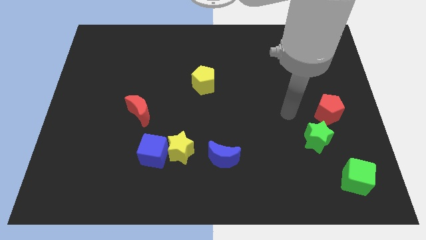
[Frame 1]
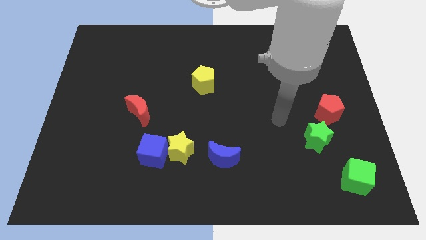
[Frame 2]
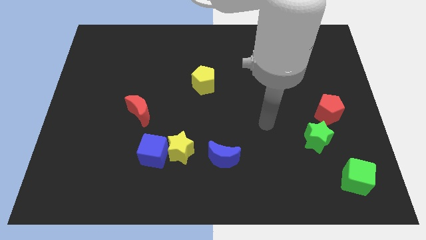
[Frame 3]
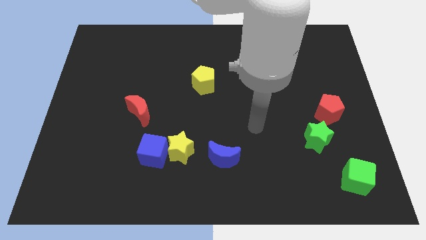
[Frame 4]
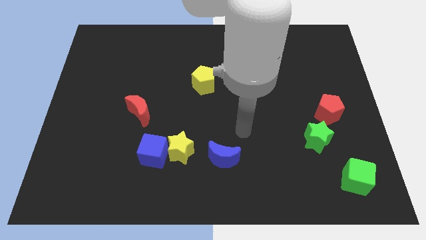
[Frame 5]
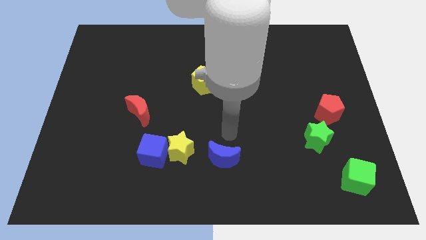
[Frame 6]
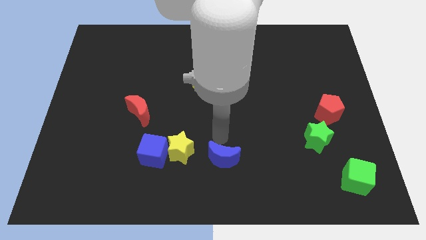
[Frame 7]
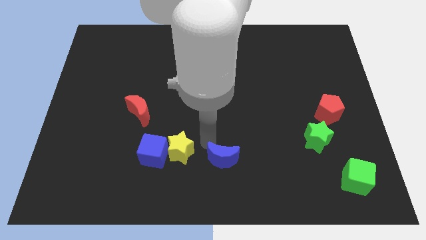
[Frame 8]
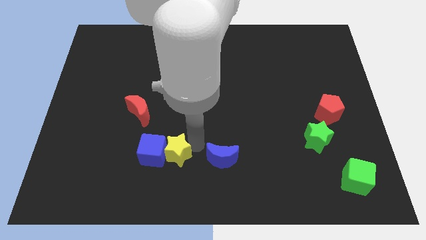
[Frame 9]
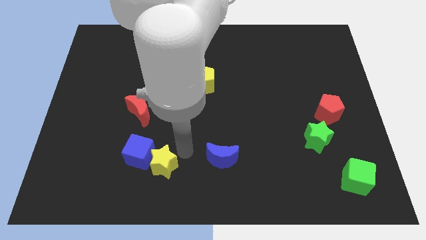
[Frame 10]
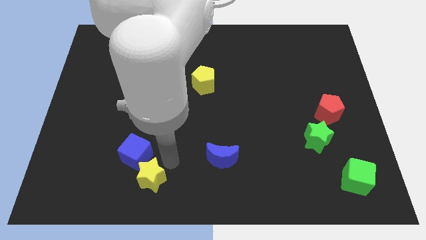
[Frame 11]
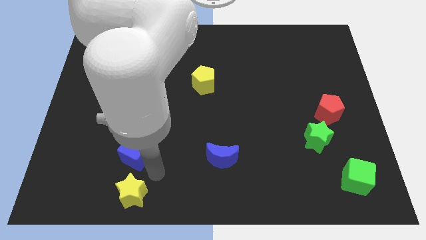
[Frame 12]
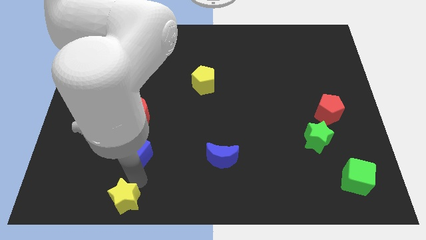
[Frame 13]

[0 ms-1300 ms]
move the blue cube away from the yellow star

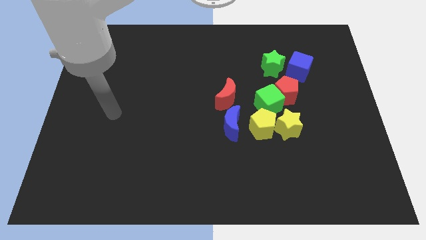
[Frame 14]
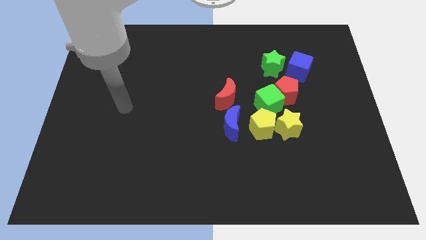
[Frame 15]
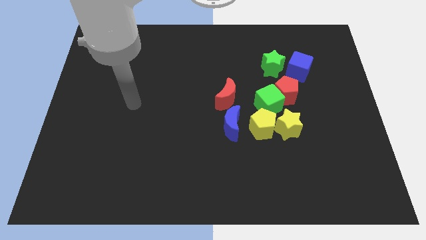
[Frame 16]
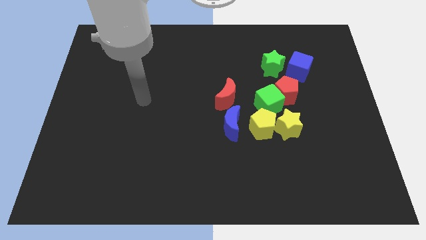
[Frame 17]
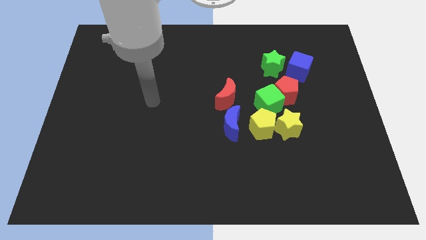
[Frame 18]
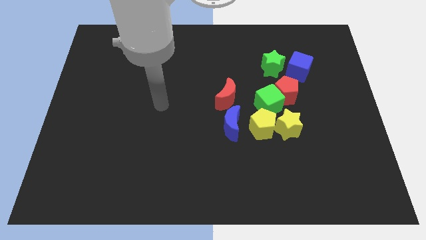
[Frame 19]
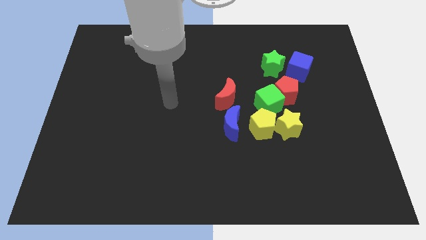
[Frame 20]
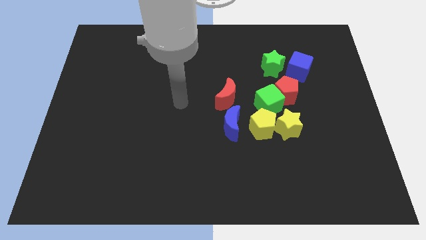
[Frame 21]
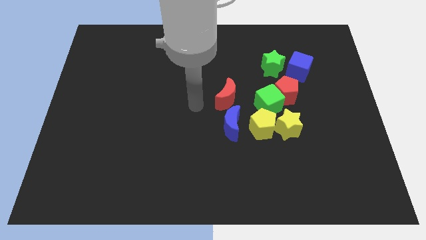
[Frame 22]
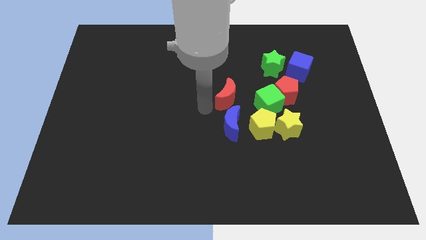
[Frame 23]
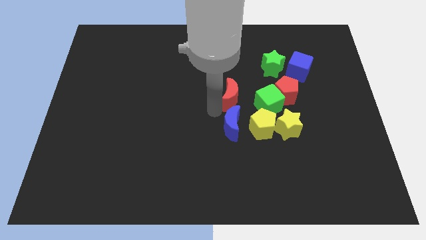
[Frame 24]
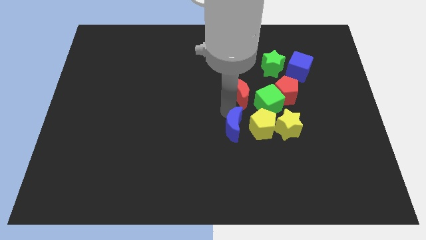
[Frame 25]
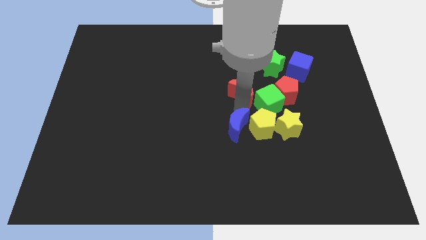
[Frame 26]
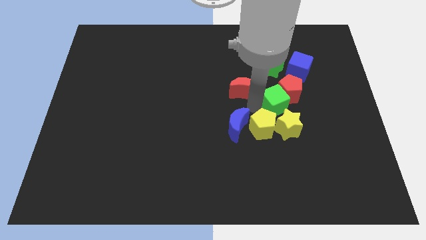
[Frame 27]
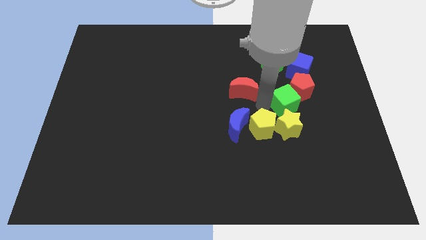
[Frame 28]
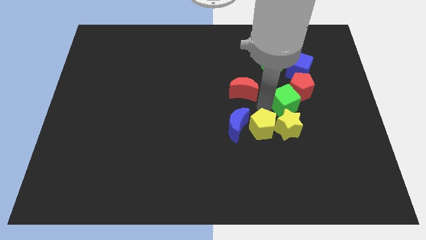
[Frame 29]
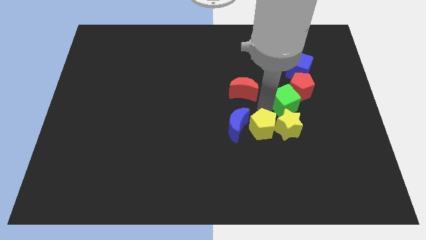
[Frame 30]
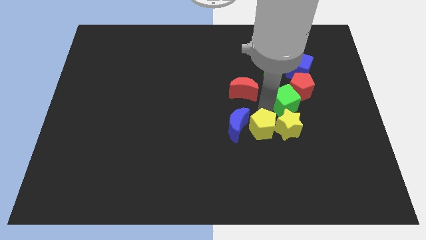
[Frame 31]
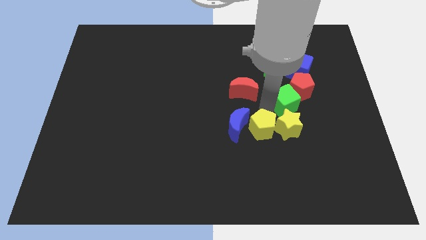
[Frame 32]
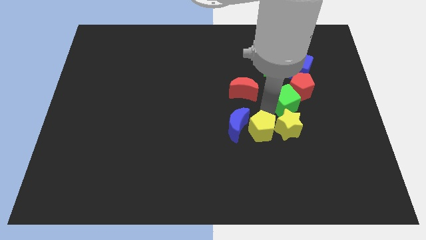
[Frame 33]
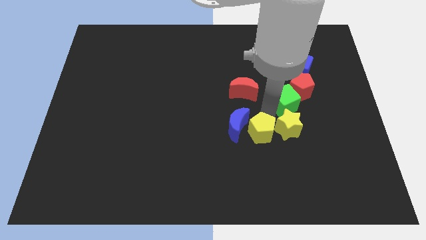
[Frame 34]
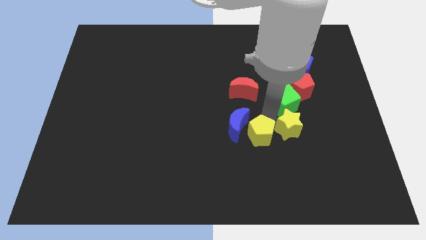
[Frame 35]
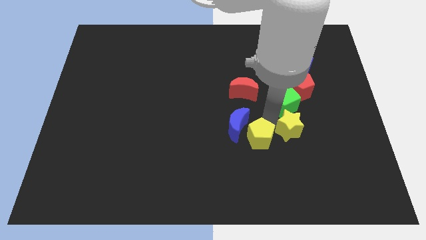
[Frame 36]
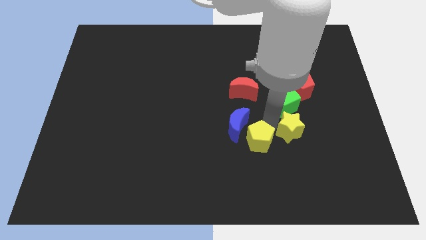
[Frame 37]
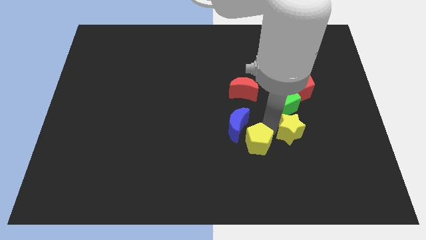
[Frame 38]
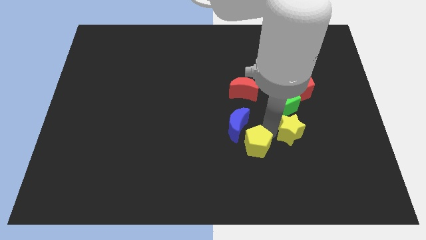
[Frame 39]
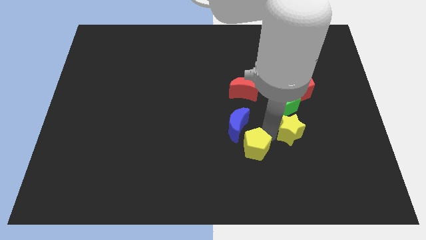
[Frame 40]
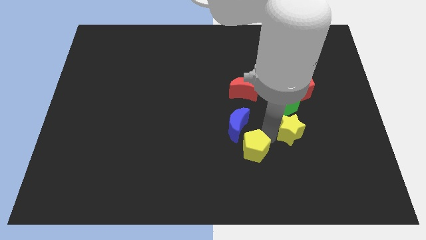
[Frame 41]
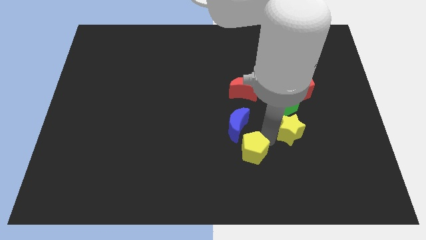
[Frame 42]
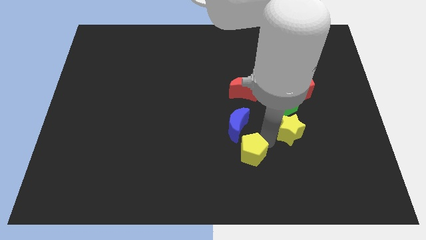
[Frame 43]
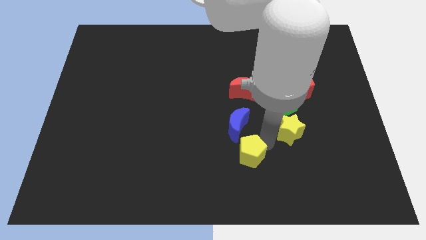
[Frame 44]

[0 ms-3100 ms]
separate the yellow pentagon from the yellow star, blue moon, and green cube

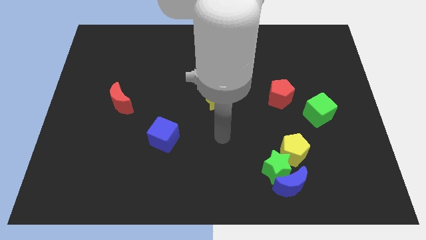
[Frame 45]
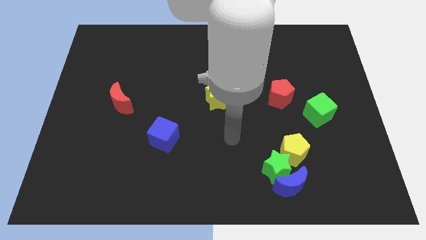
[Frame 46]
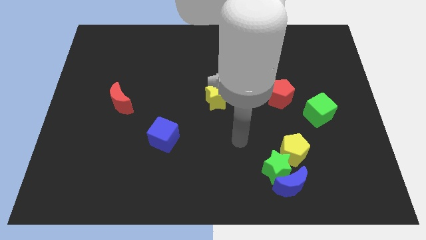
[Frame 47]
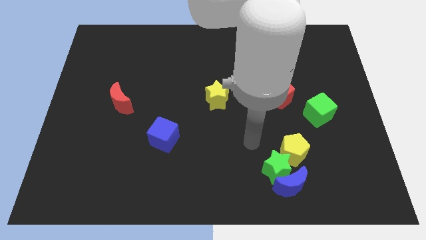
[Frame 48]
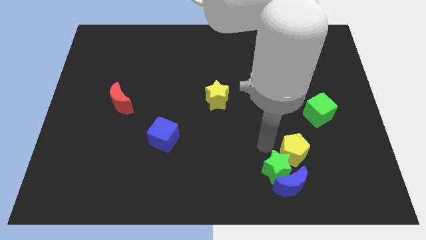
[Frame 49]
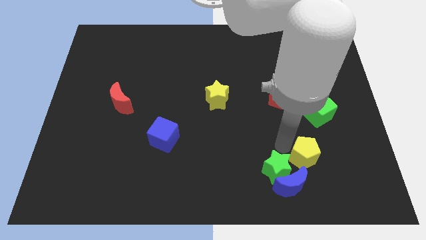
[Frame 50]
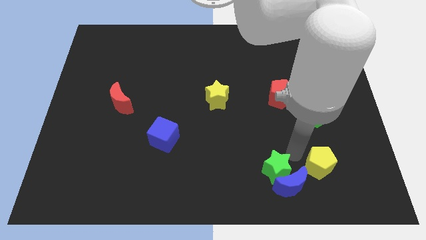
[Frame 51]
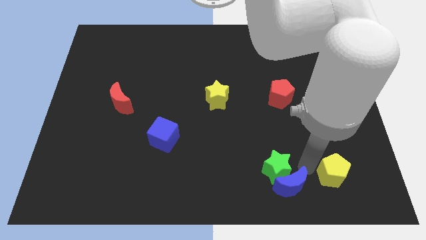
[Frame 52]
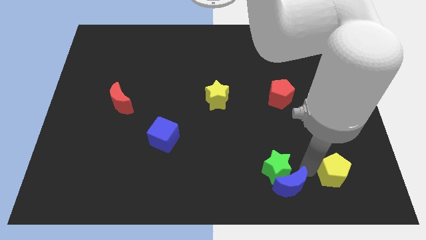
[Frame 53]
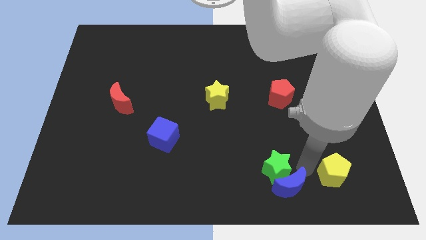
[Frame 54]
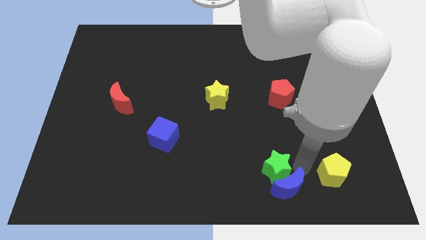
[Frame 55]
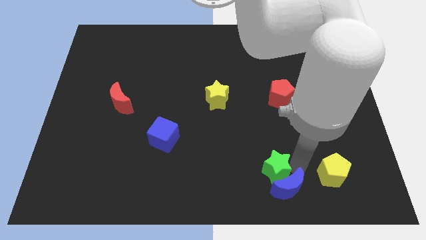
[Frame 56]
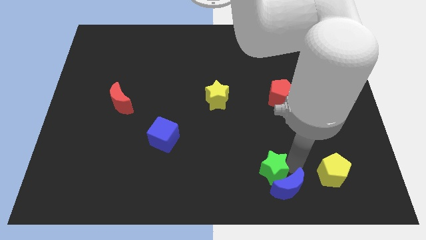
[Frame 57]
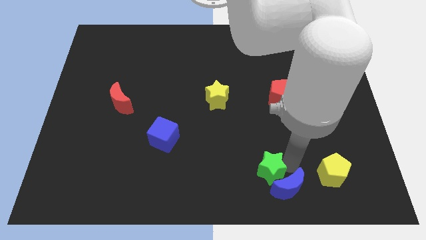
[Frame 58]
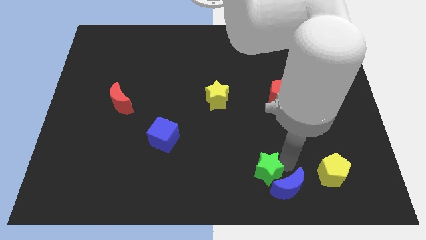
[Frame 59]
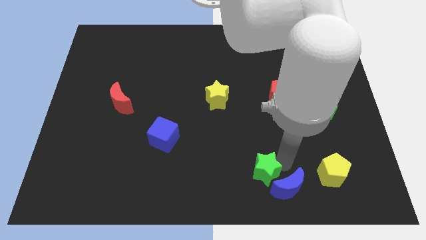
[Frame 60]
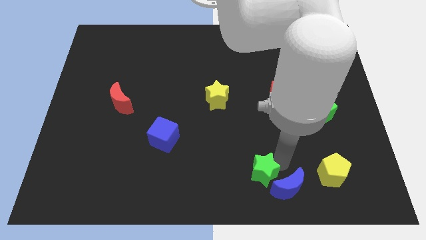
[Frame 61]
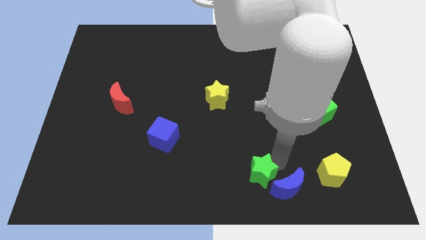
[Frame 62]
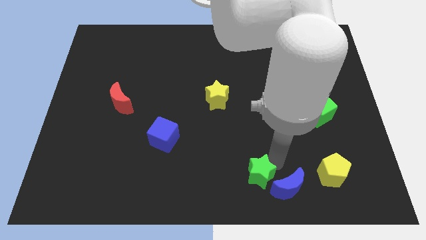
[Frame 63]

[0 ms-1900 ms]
pull the green star apart from the blue moon and yellow pentagon

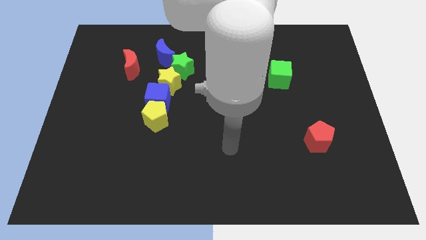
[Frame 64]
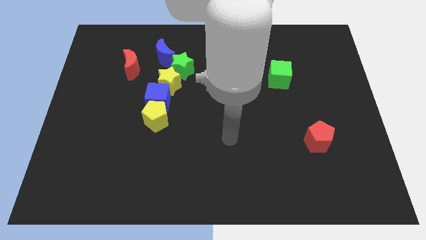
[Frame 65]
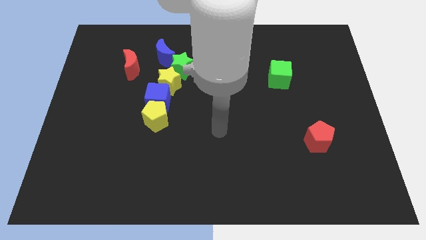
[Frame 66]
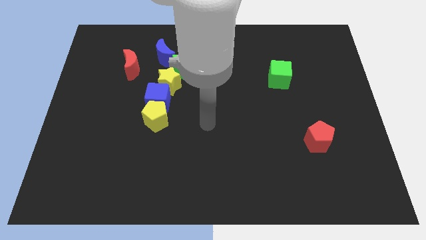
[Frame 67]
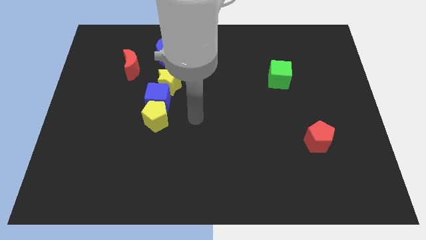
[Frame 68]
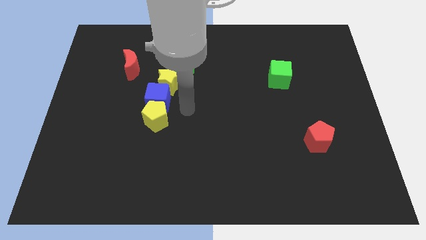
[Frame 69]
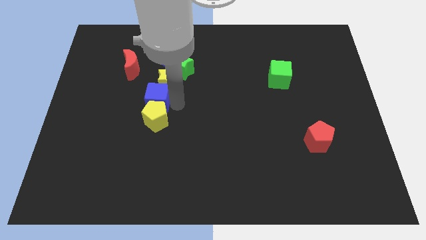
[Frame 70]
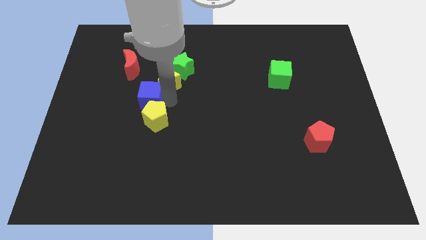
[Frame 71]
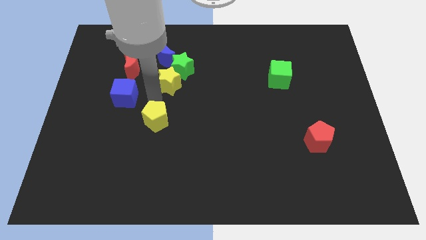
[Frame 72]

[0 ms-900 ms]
move the yellow pentagon away from the blue cube

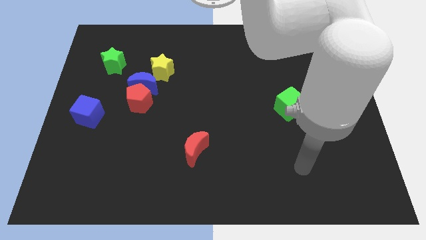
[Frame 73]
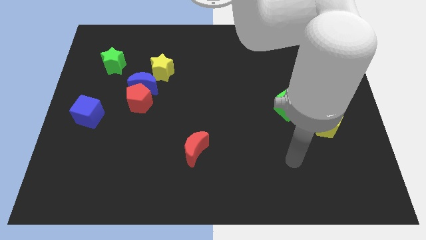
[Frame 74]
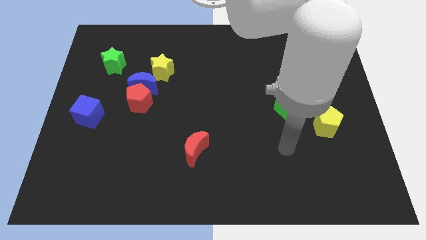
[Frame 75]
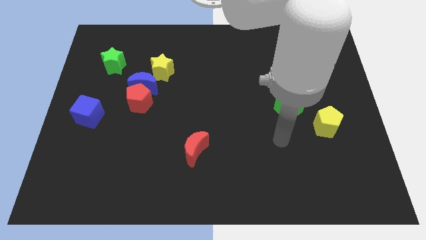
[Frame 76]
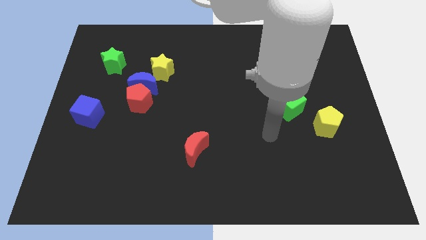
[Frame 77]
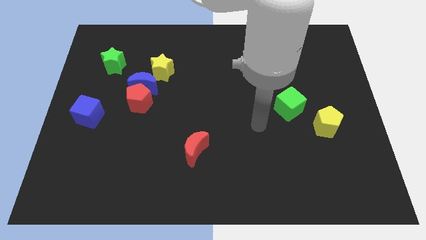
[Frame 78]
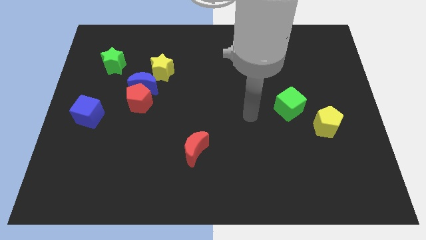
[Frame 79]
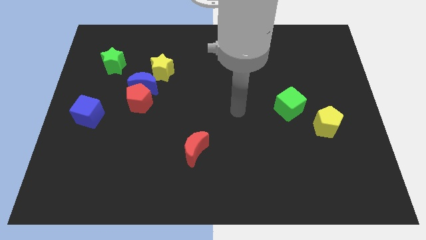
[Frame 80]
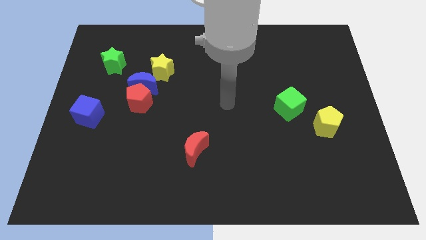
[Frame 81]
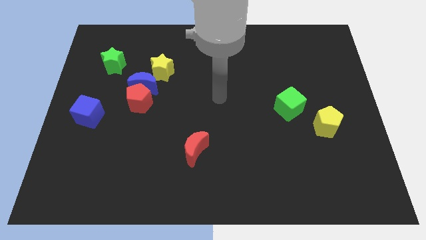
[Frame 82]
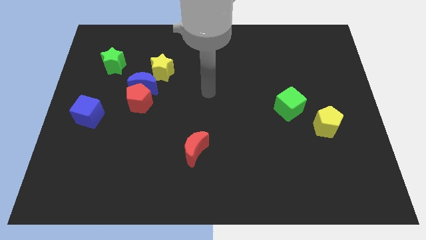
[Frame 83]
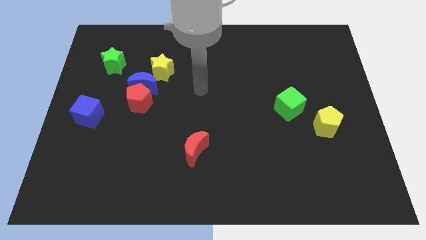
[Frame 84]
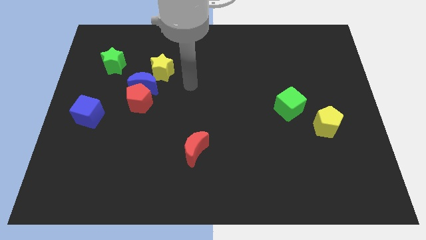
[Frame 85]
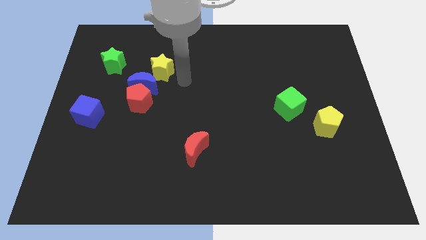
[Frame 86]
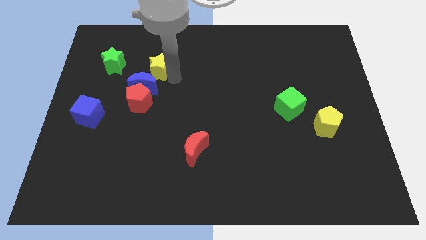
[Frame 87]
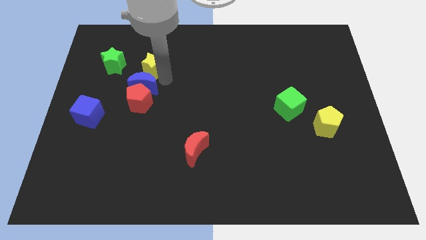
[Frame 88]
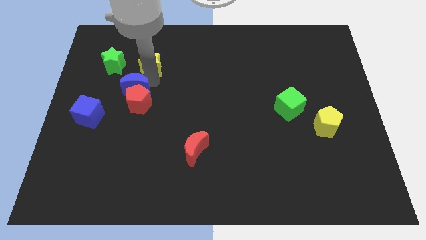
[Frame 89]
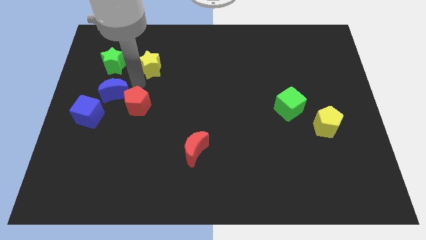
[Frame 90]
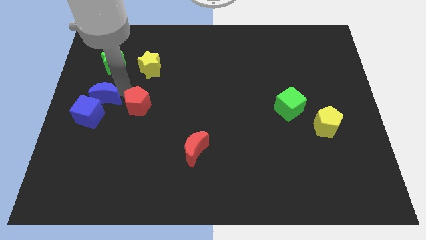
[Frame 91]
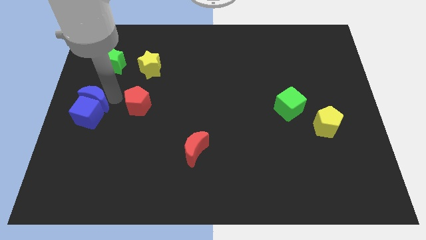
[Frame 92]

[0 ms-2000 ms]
separate the red pentagon from the blue moon
